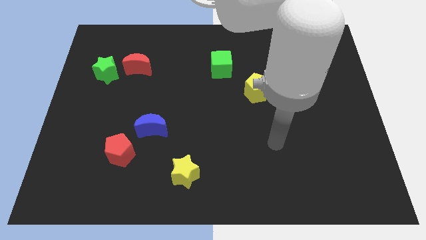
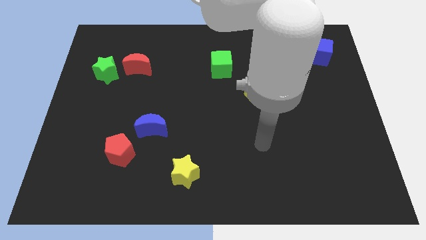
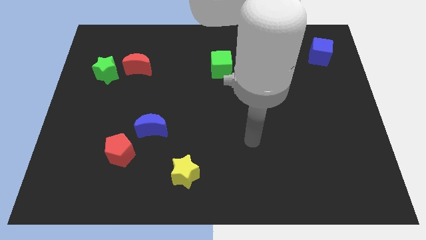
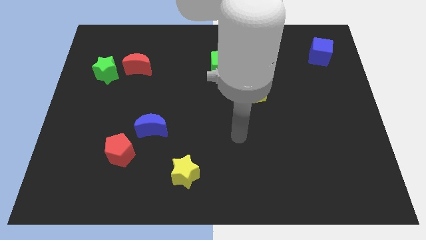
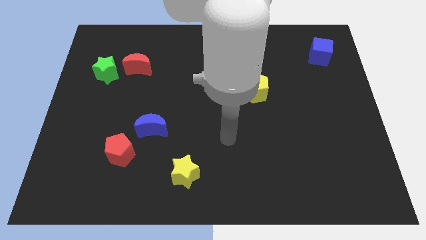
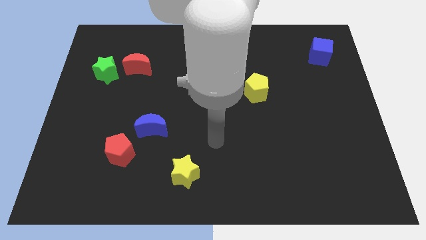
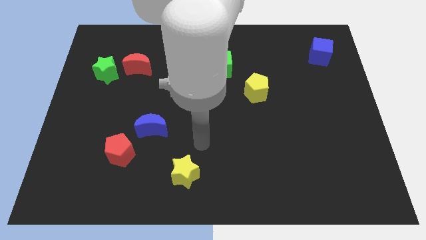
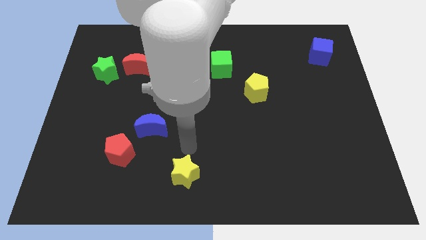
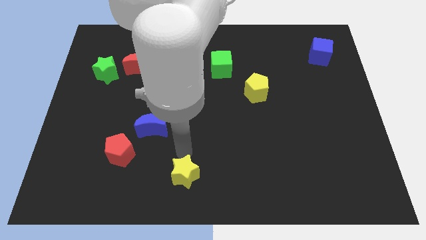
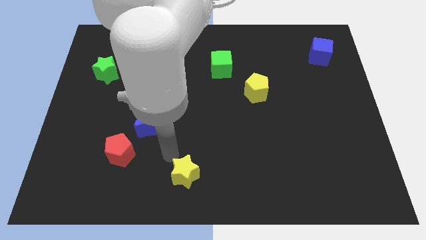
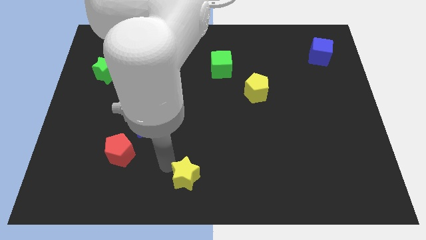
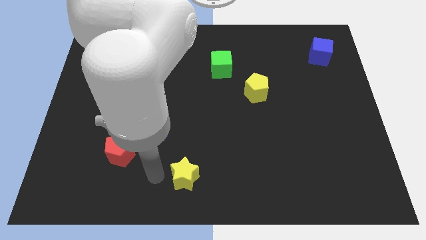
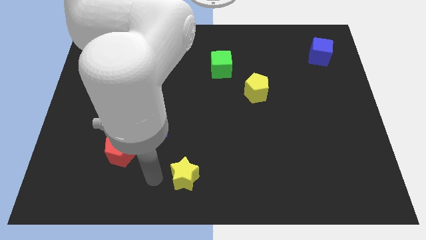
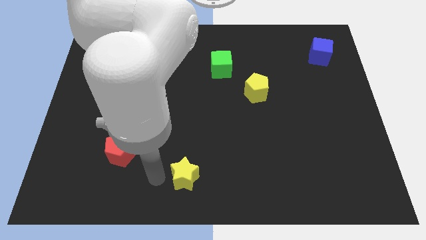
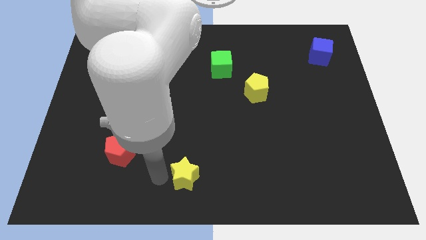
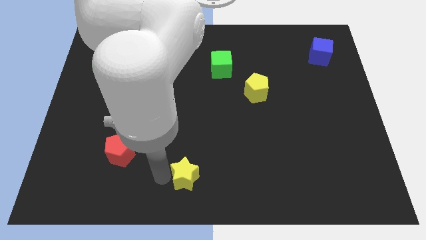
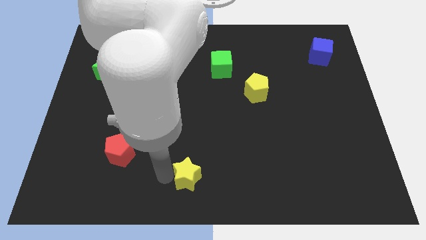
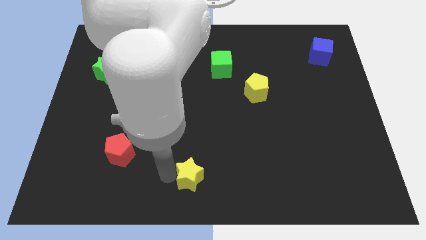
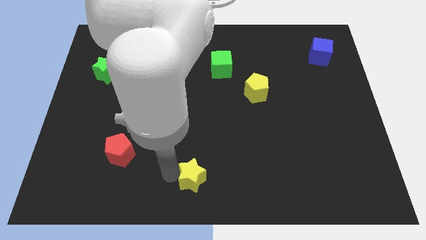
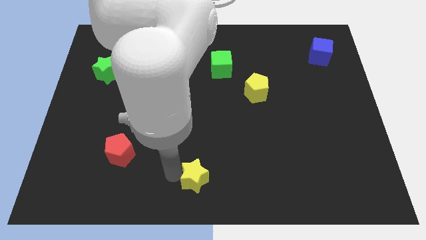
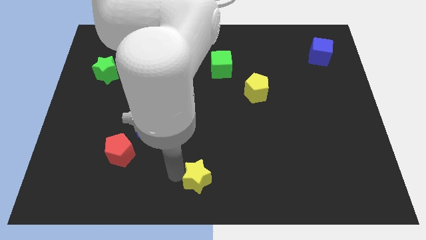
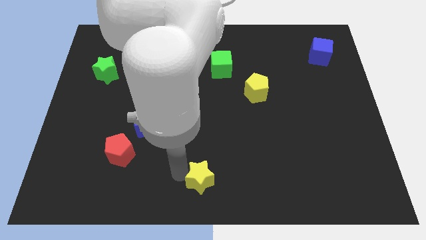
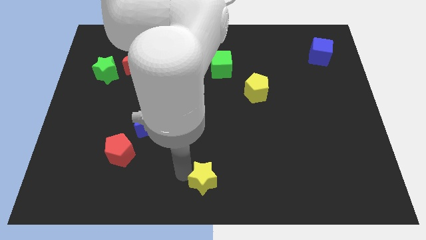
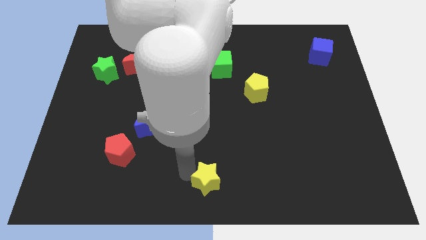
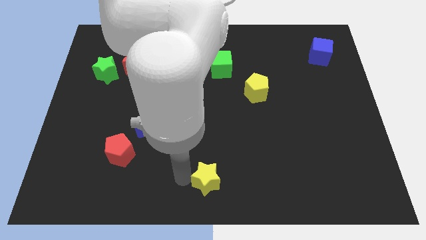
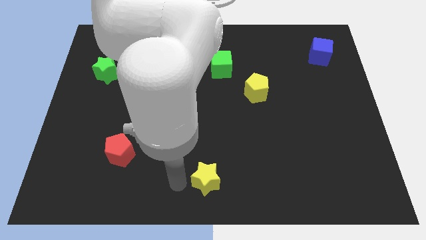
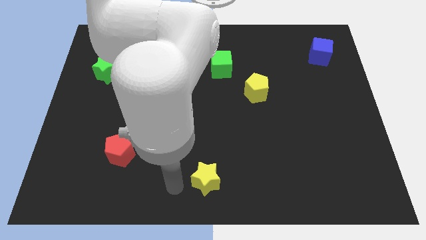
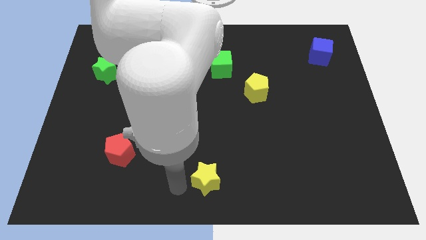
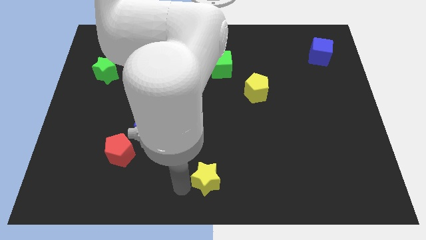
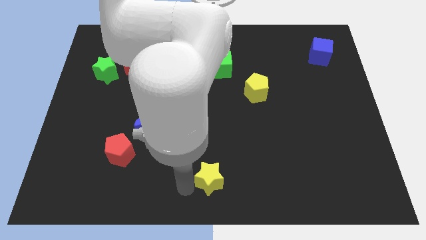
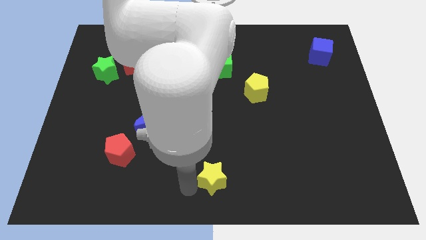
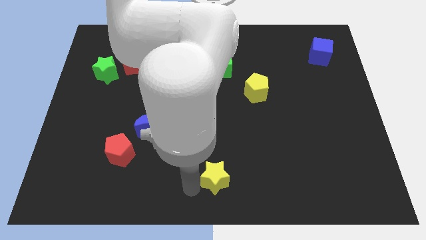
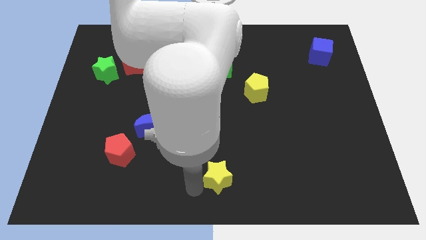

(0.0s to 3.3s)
push the yellow star right somewhat

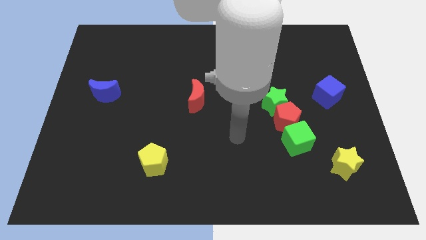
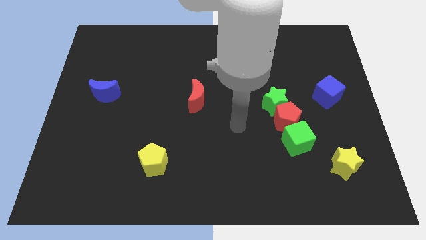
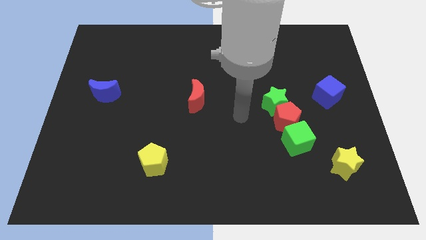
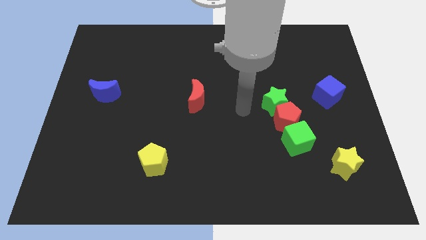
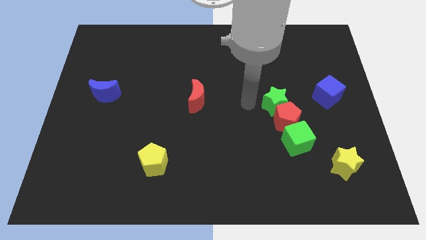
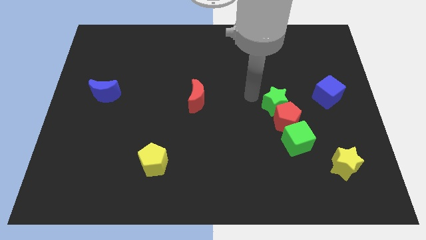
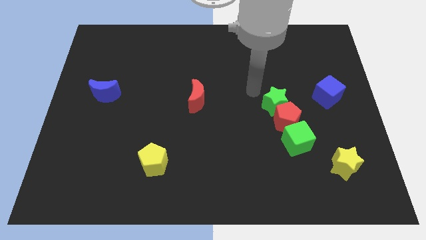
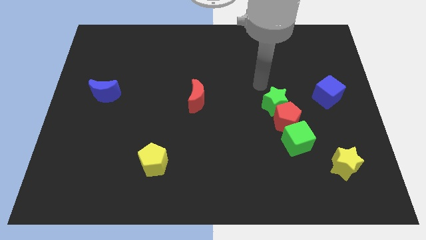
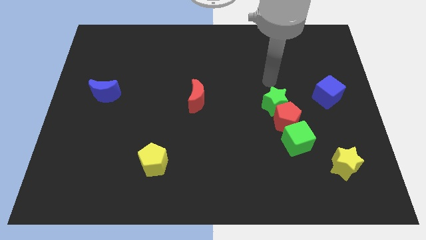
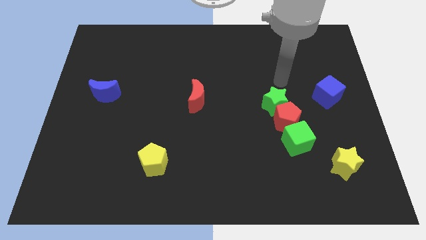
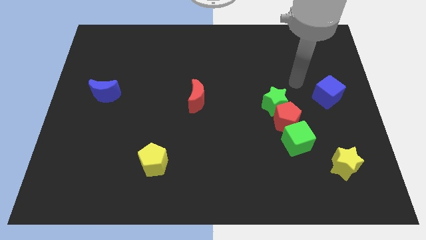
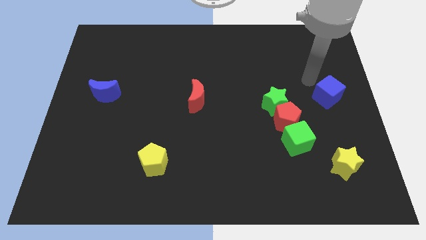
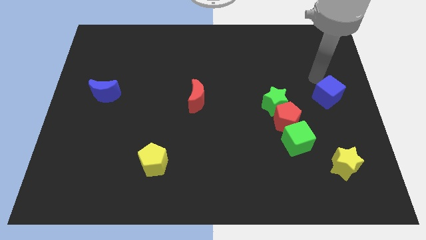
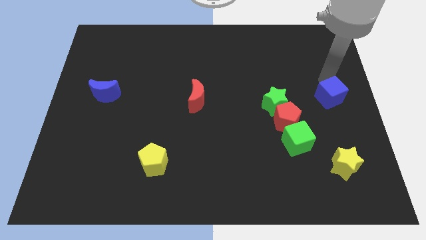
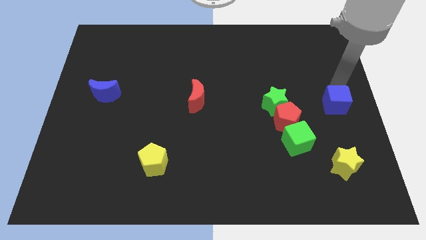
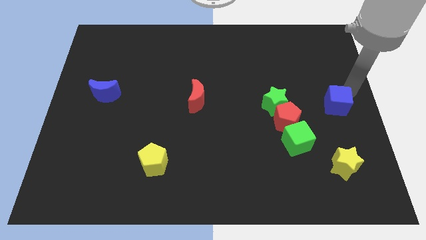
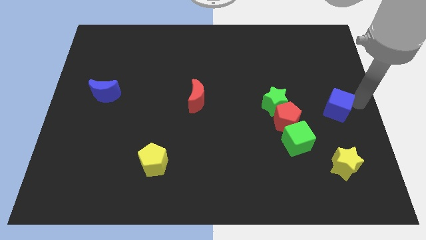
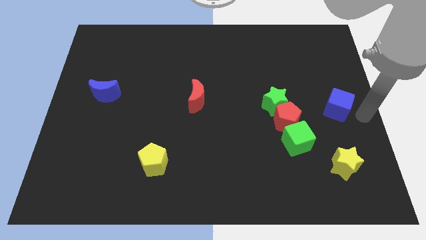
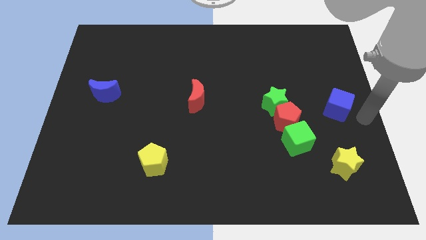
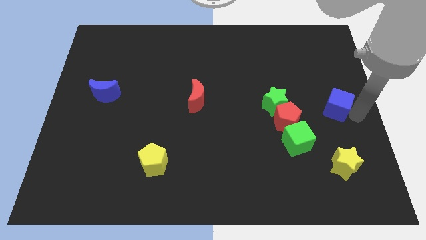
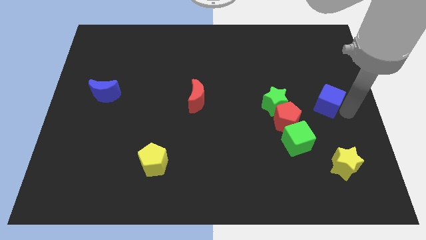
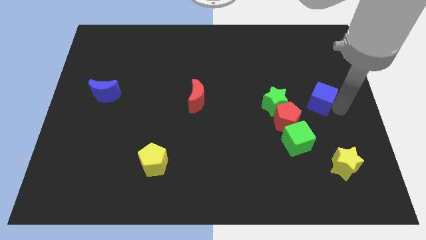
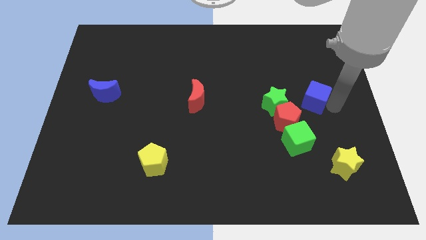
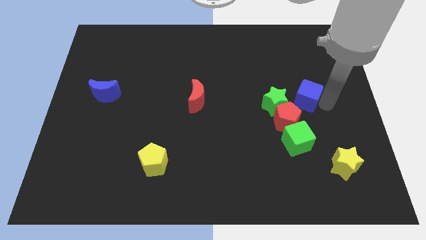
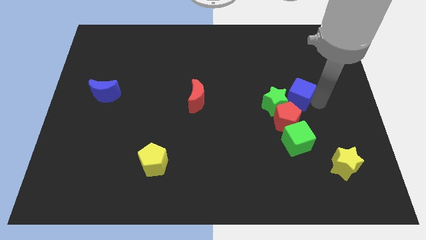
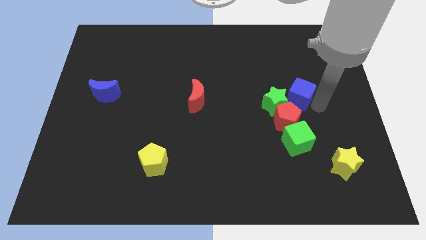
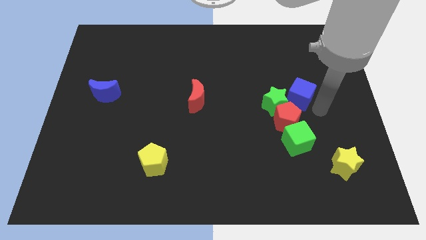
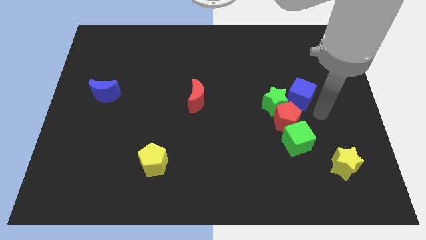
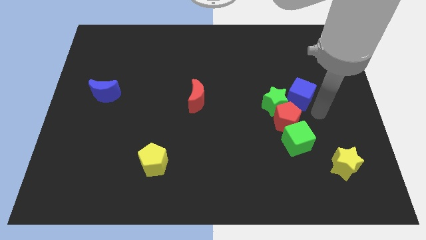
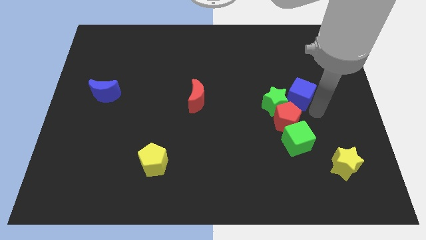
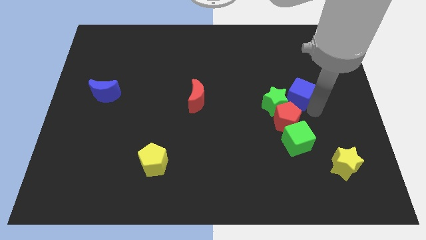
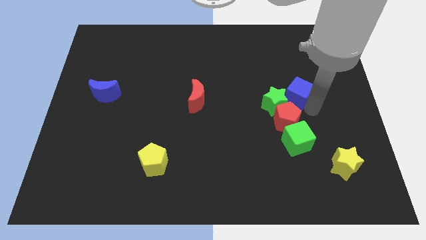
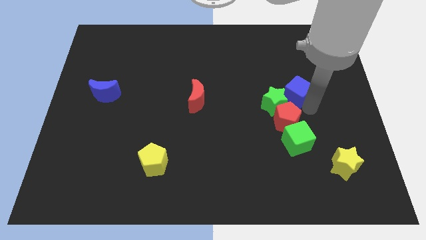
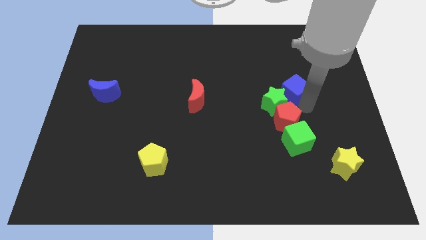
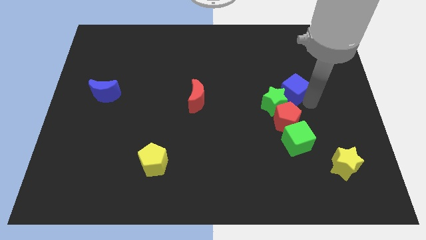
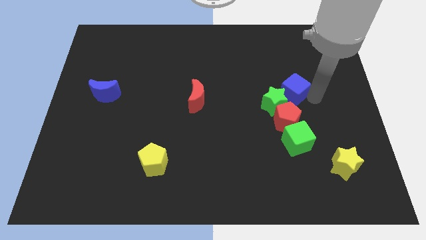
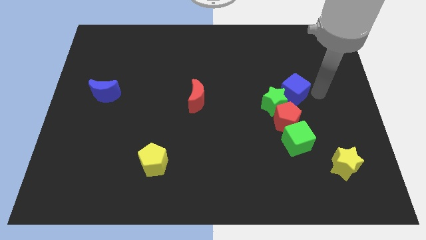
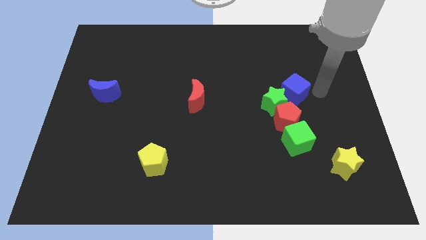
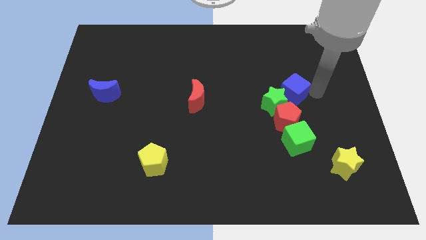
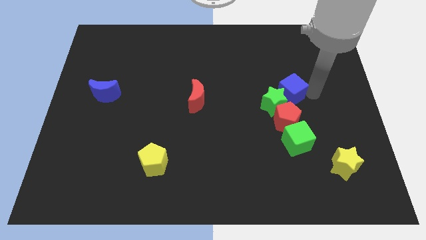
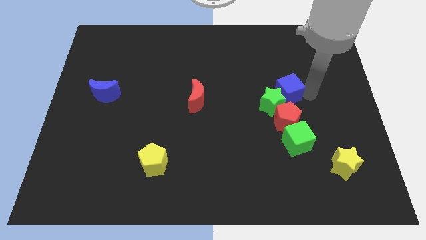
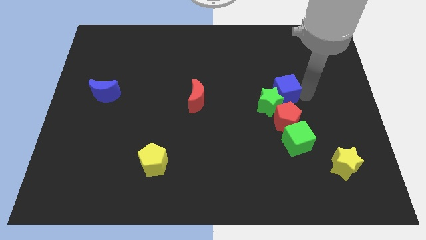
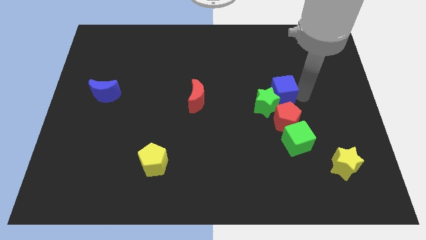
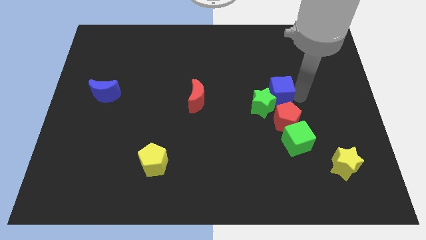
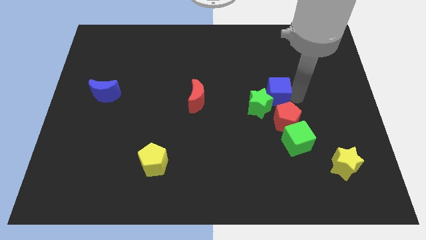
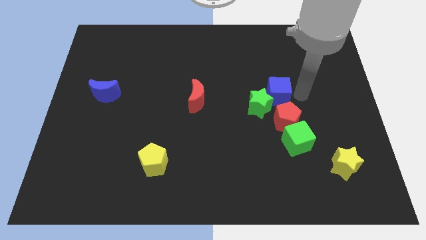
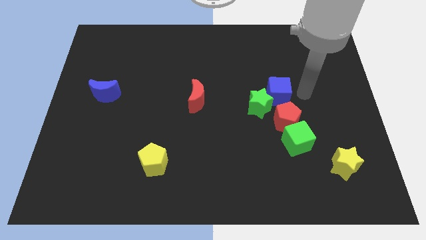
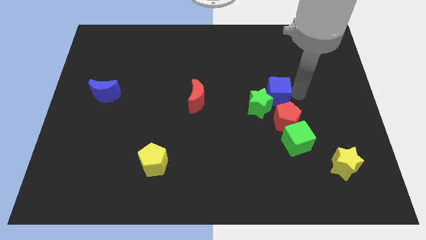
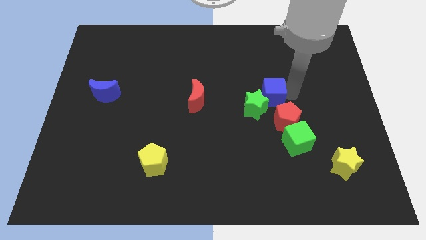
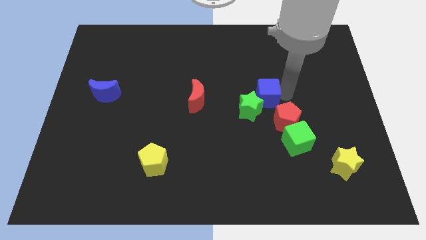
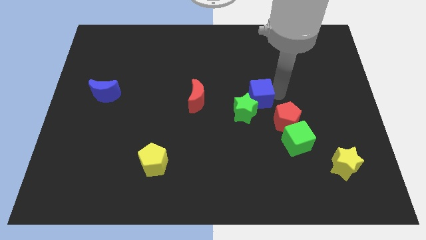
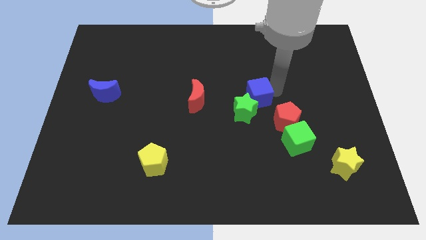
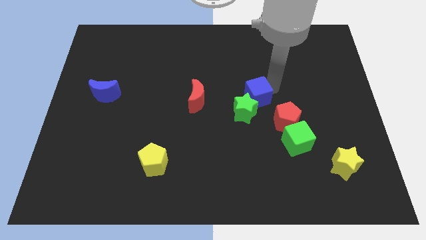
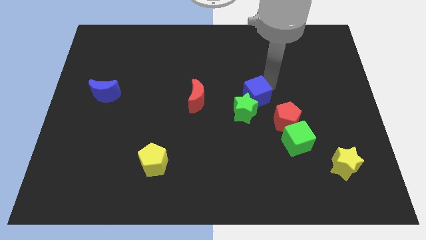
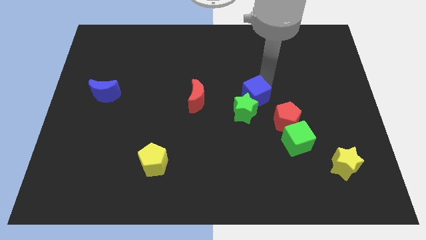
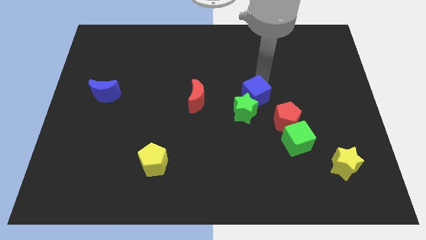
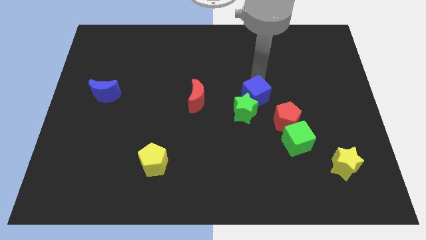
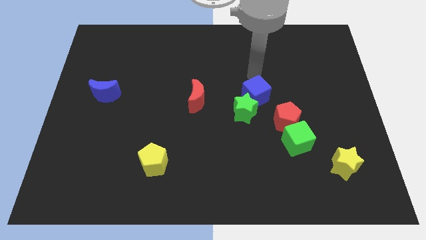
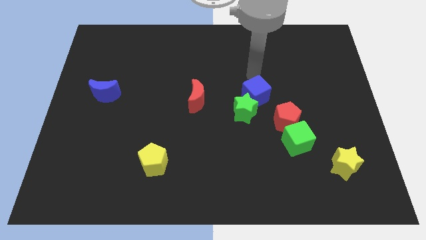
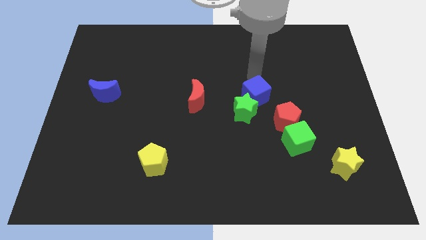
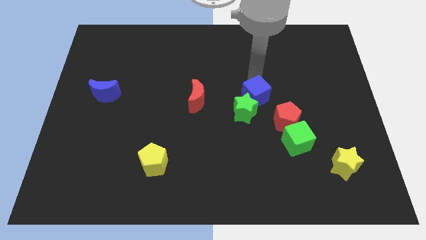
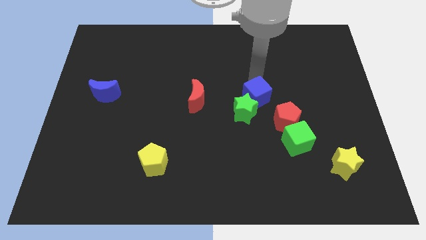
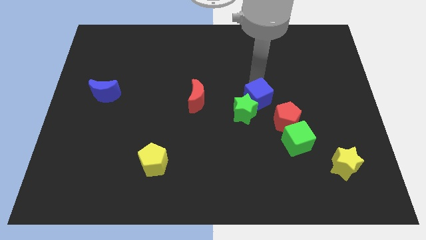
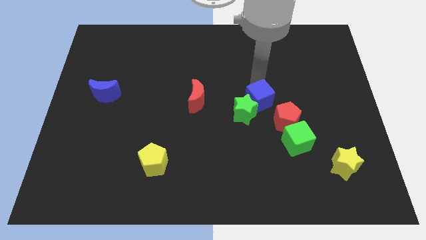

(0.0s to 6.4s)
move the blue cube diagonally downwards and to the left a little bit
